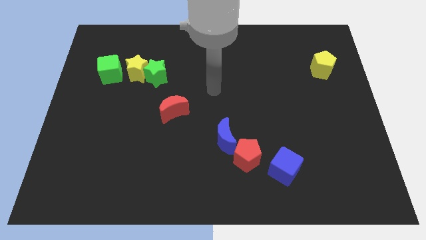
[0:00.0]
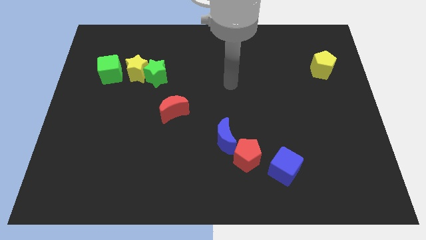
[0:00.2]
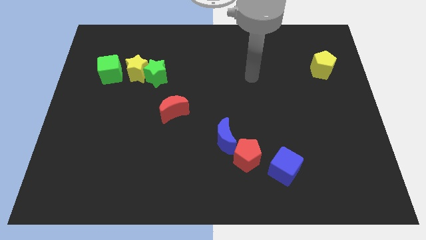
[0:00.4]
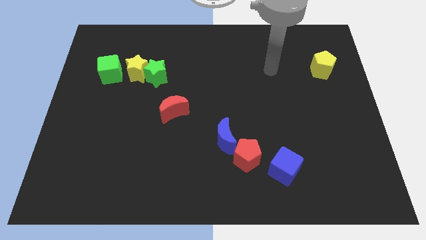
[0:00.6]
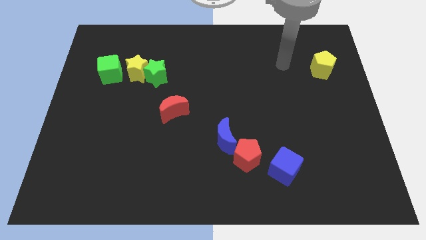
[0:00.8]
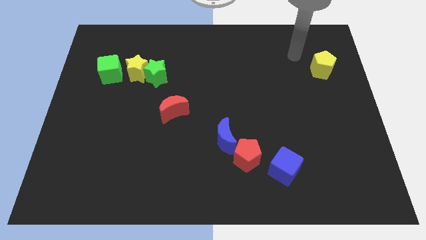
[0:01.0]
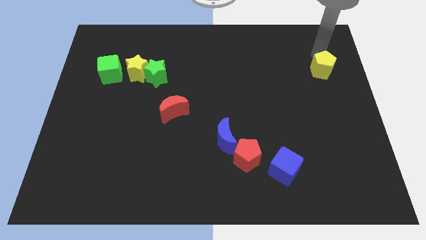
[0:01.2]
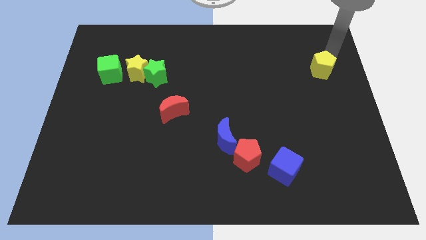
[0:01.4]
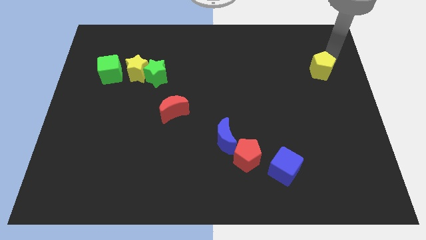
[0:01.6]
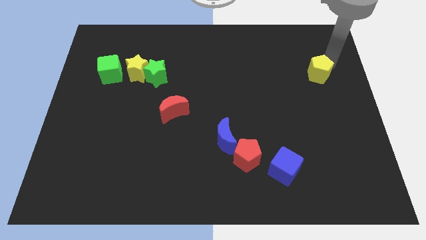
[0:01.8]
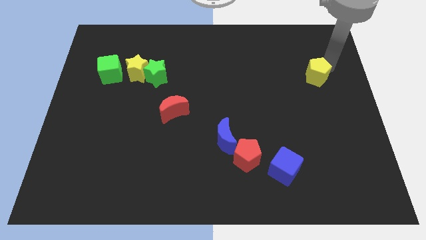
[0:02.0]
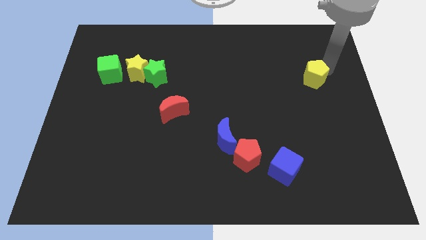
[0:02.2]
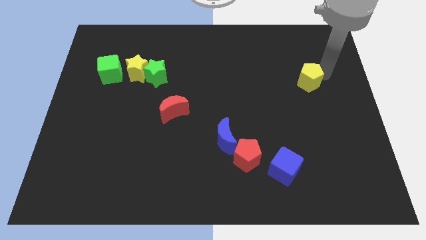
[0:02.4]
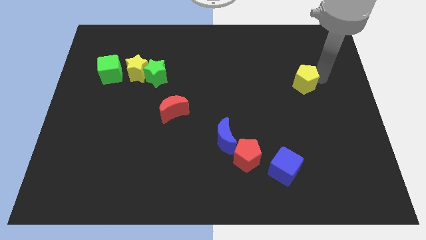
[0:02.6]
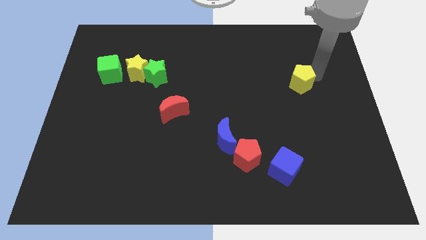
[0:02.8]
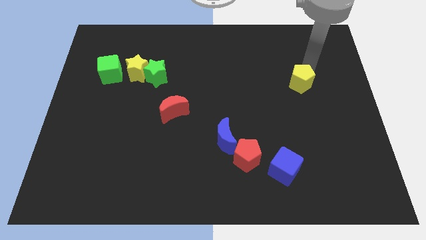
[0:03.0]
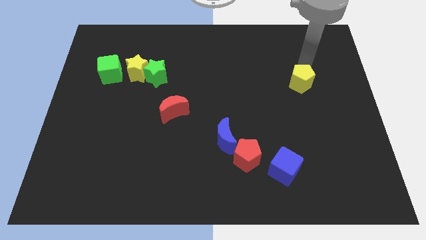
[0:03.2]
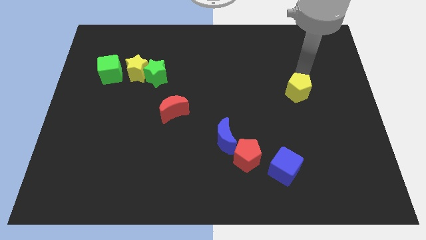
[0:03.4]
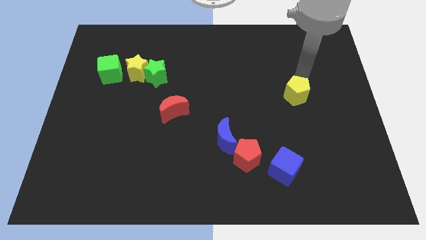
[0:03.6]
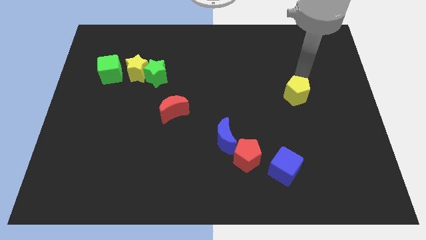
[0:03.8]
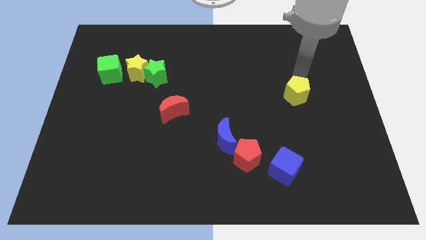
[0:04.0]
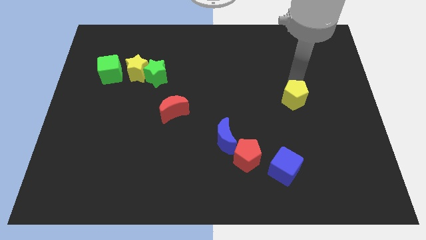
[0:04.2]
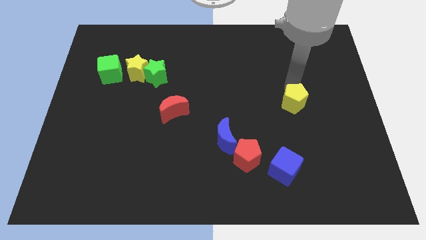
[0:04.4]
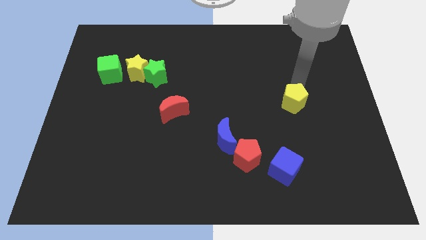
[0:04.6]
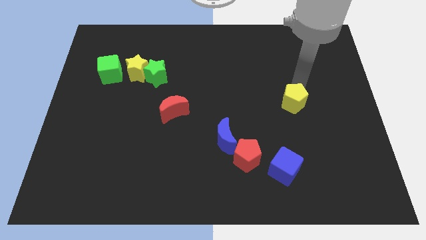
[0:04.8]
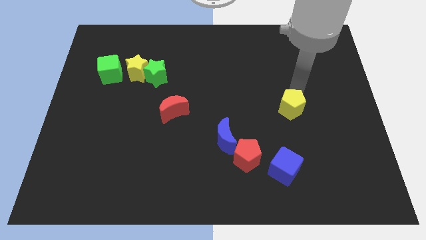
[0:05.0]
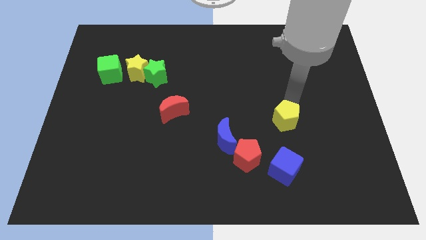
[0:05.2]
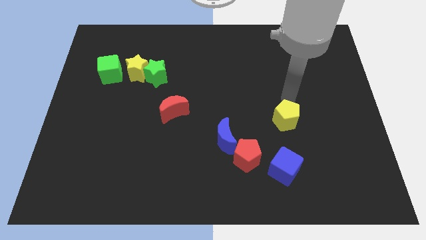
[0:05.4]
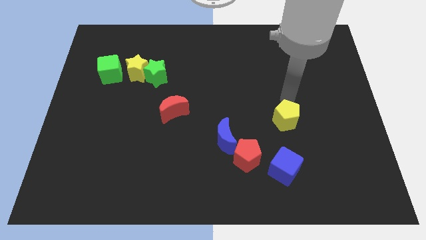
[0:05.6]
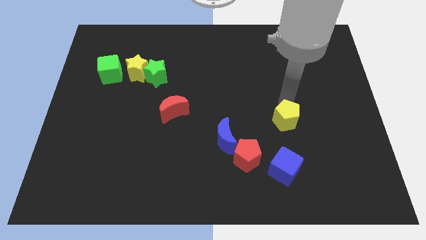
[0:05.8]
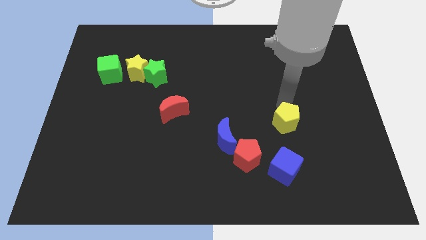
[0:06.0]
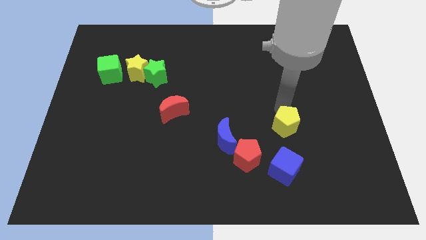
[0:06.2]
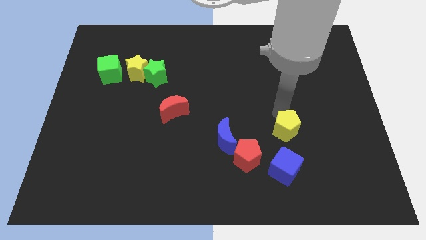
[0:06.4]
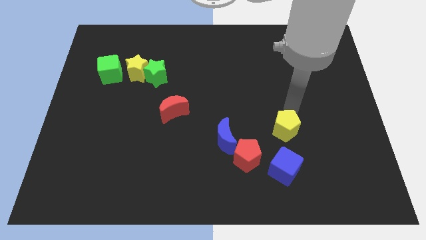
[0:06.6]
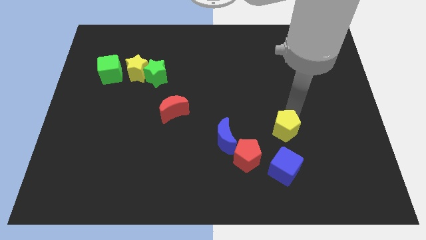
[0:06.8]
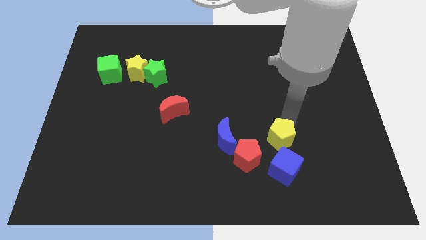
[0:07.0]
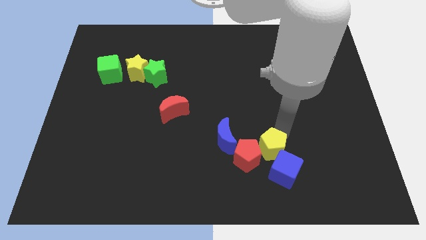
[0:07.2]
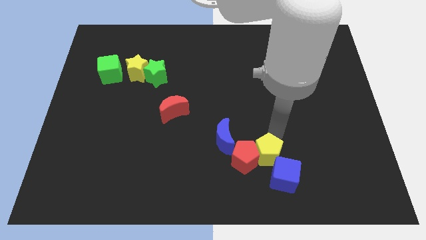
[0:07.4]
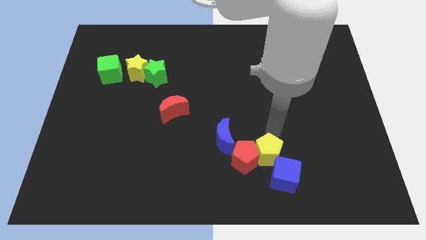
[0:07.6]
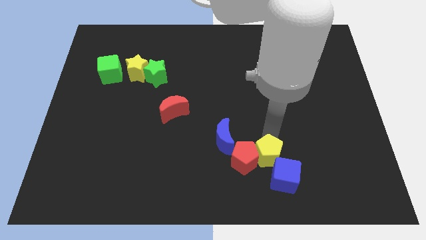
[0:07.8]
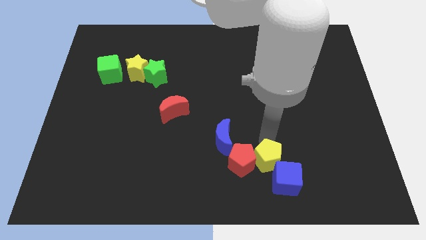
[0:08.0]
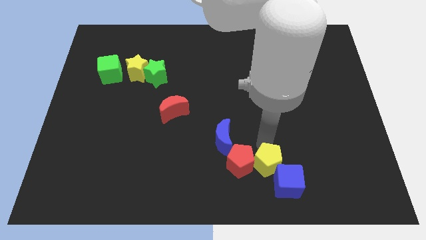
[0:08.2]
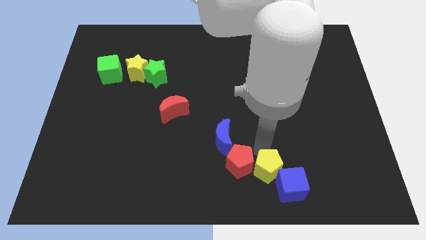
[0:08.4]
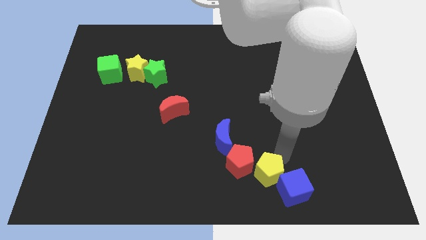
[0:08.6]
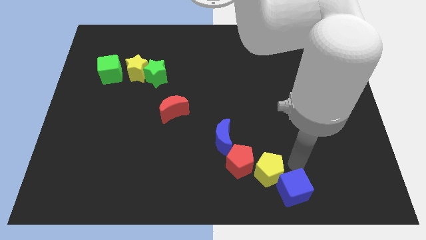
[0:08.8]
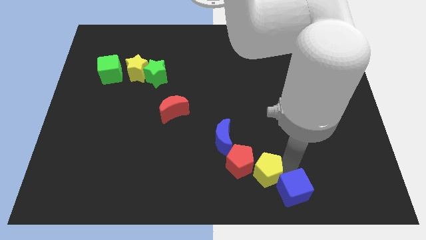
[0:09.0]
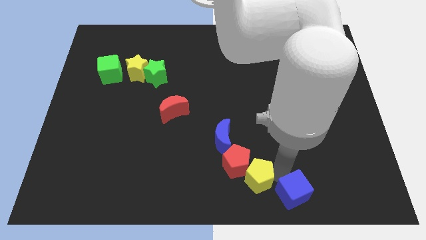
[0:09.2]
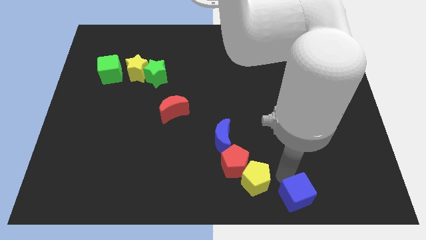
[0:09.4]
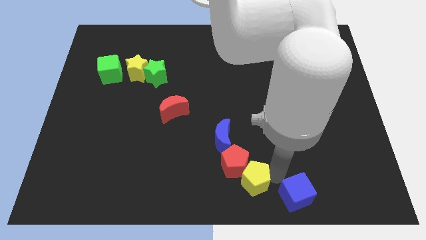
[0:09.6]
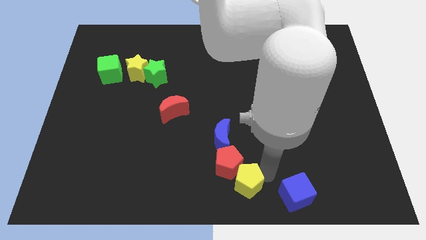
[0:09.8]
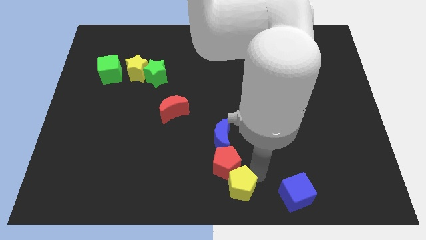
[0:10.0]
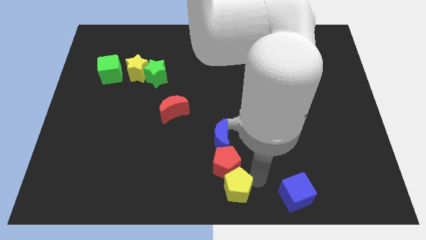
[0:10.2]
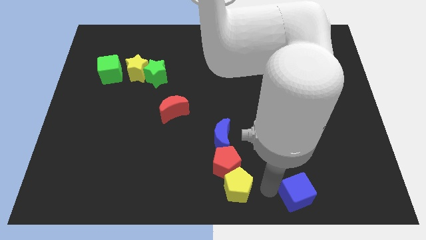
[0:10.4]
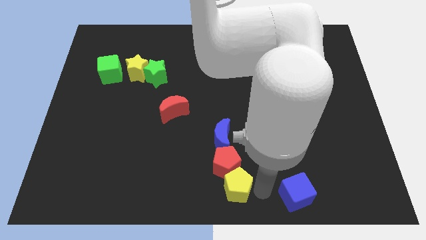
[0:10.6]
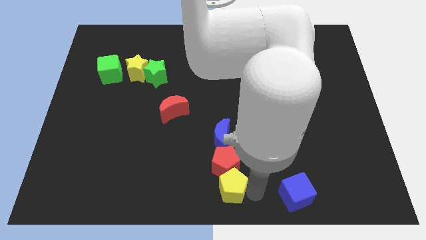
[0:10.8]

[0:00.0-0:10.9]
slide the yellow pentagon to the bottom left of the red pentagon
